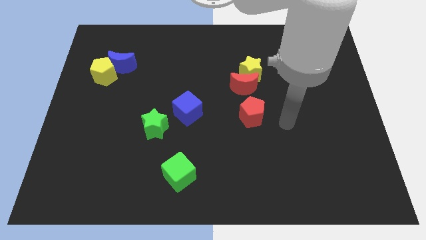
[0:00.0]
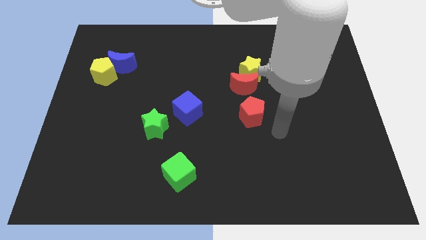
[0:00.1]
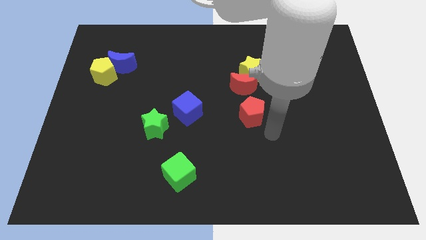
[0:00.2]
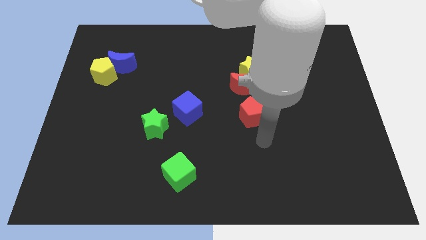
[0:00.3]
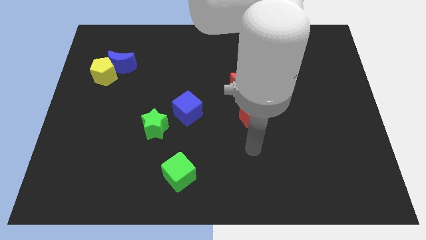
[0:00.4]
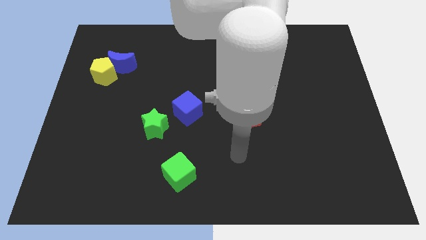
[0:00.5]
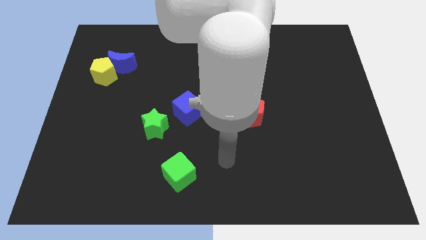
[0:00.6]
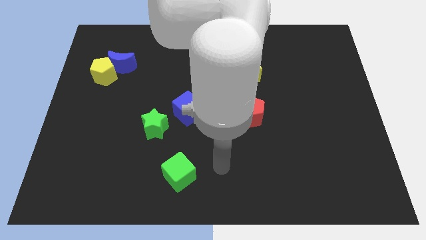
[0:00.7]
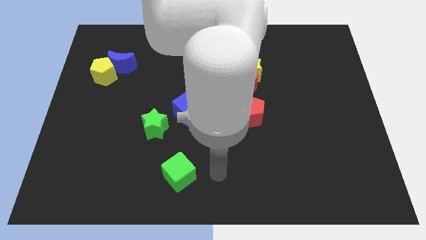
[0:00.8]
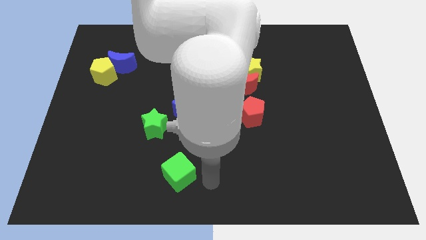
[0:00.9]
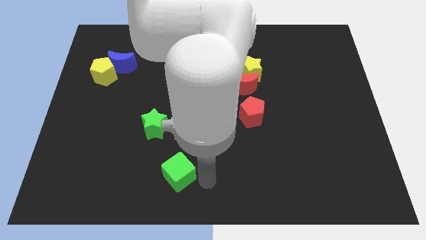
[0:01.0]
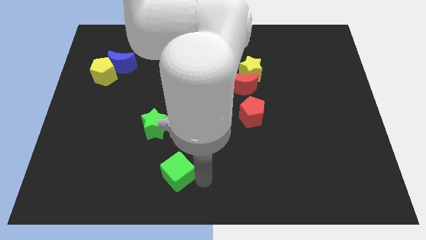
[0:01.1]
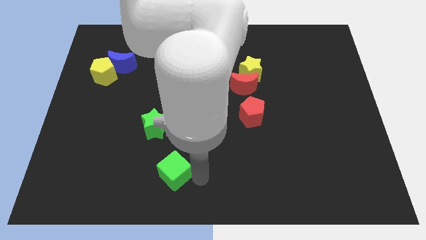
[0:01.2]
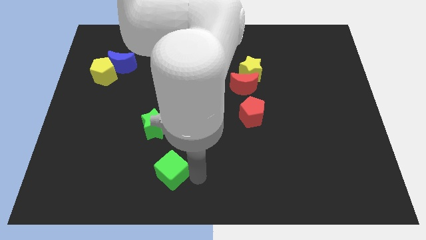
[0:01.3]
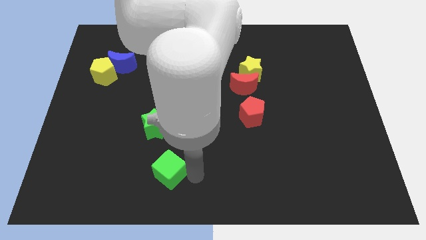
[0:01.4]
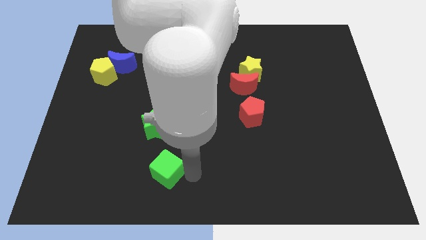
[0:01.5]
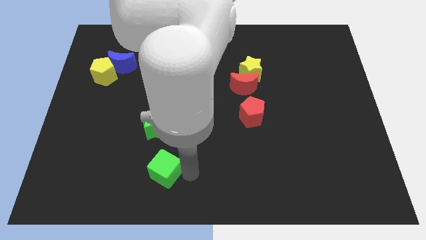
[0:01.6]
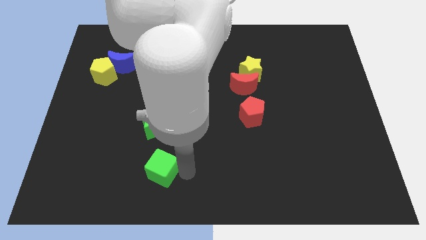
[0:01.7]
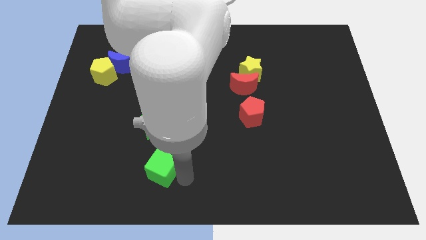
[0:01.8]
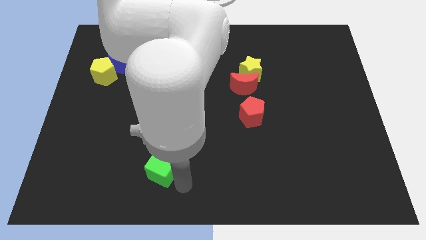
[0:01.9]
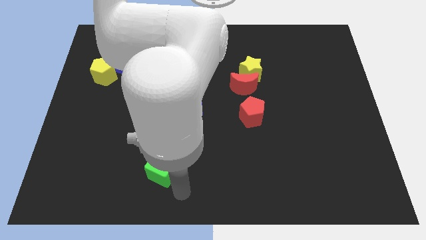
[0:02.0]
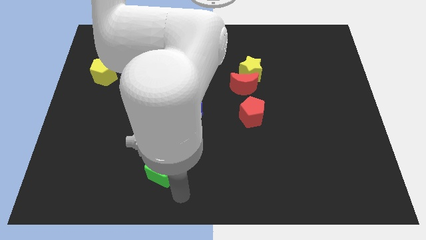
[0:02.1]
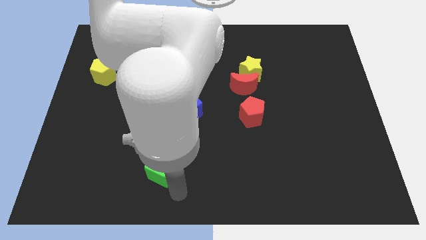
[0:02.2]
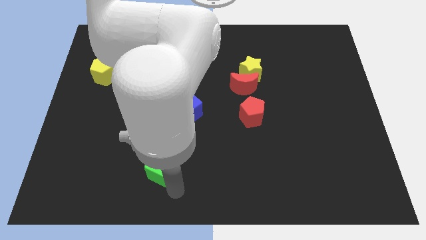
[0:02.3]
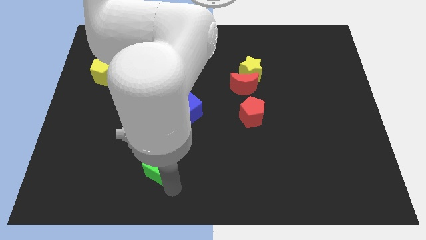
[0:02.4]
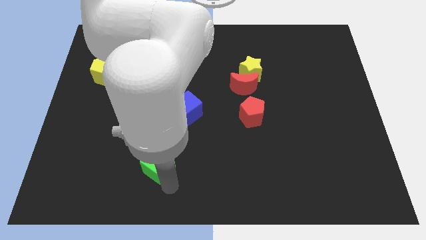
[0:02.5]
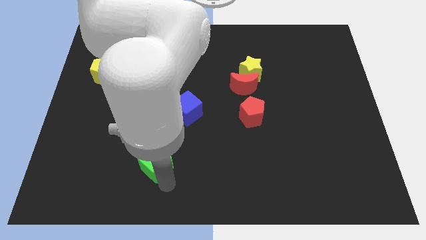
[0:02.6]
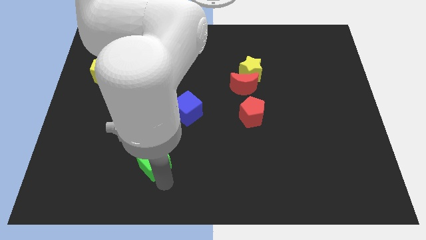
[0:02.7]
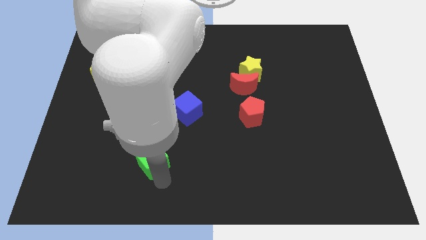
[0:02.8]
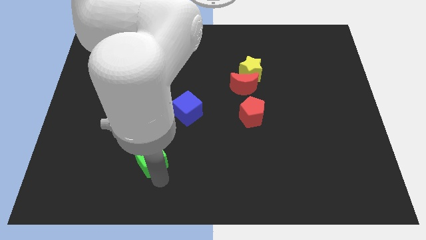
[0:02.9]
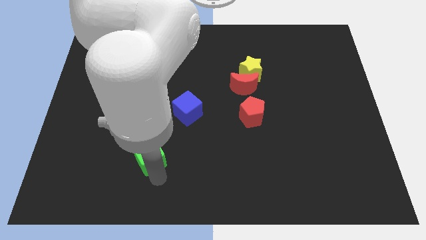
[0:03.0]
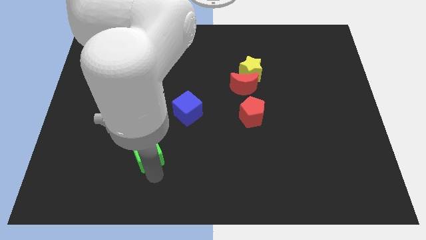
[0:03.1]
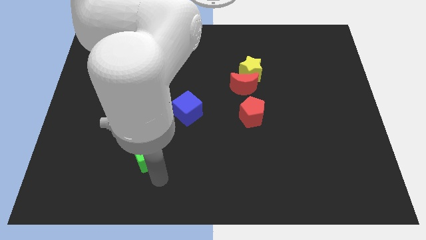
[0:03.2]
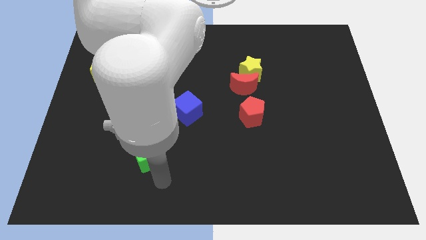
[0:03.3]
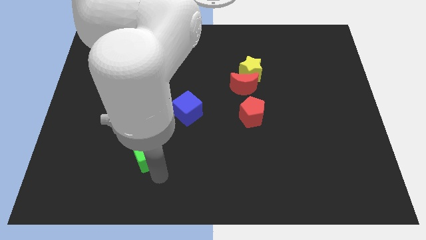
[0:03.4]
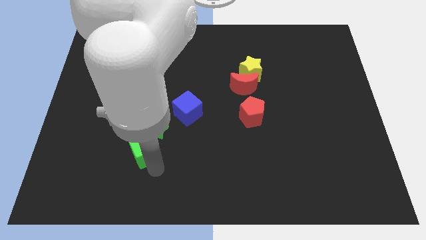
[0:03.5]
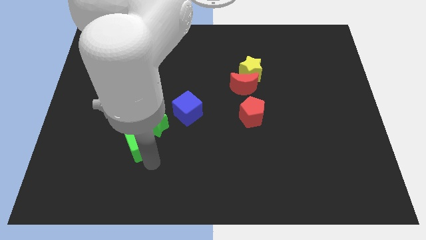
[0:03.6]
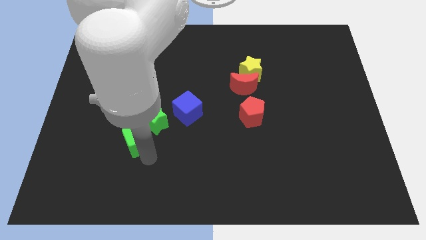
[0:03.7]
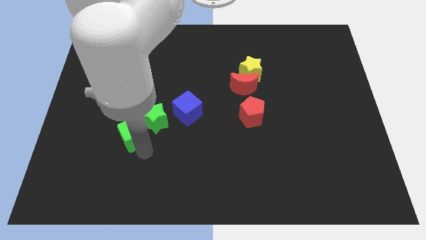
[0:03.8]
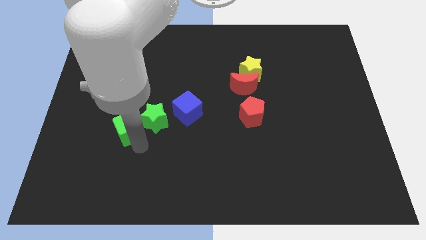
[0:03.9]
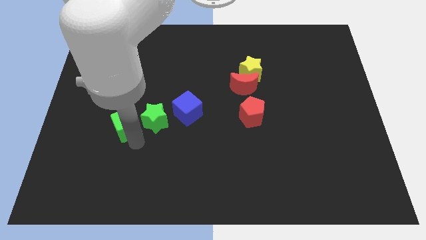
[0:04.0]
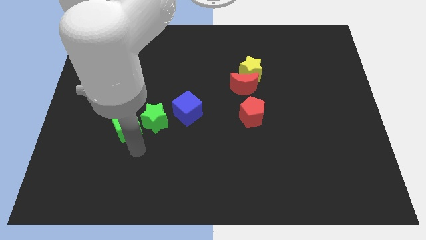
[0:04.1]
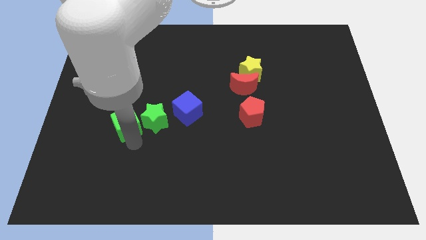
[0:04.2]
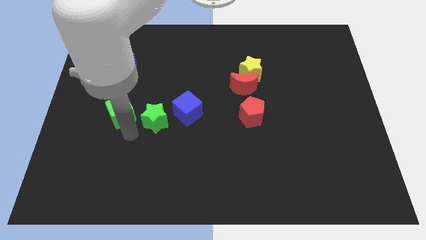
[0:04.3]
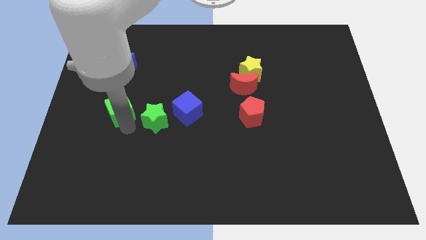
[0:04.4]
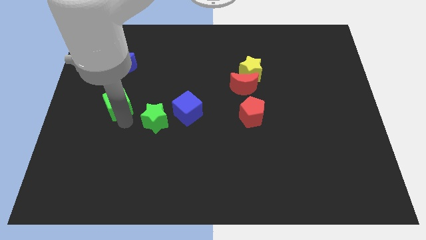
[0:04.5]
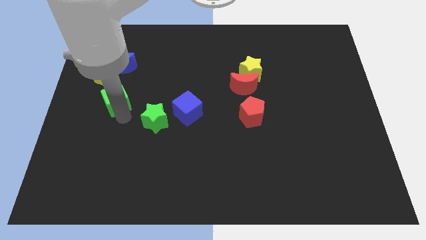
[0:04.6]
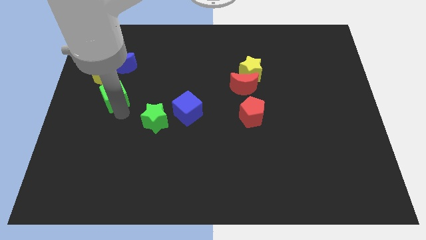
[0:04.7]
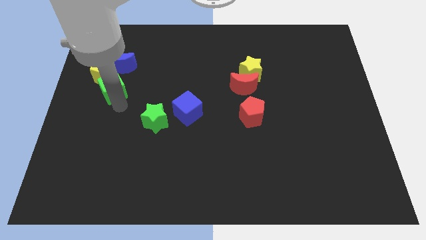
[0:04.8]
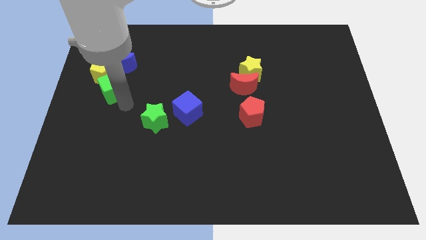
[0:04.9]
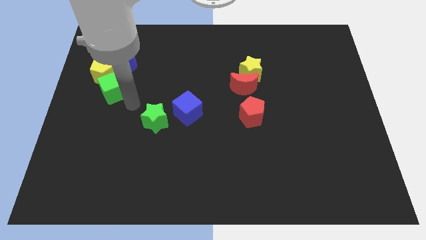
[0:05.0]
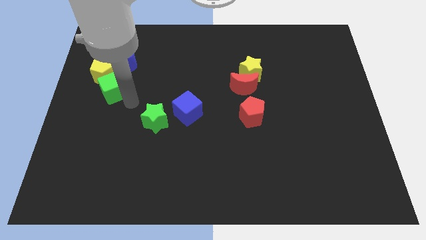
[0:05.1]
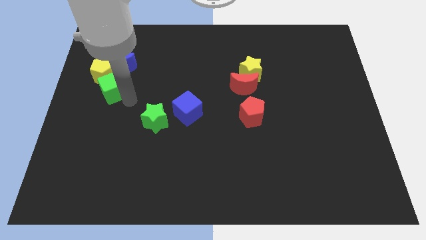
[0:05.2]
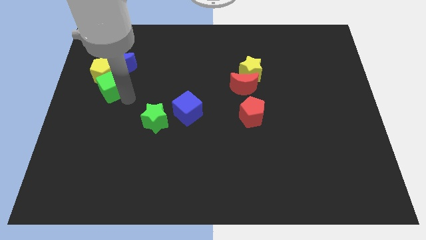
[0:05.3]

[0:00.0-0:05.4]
move the green cube to the bottom left of the blue moon

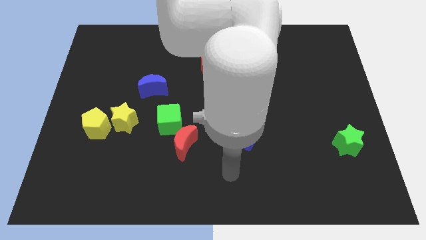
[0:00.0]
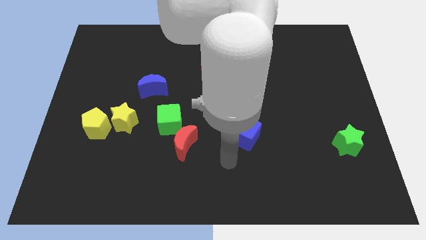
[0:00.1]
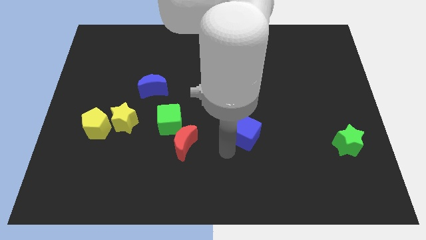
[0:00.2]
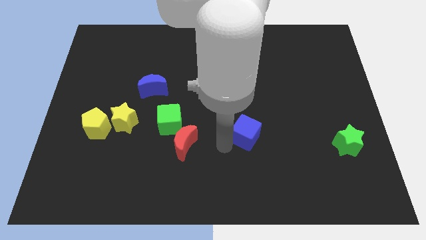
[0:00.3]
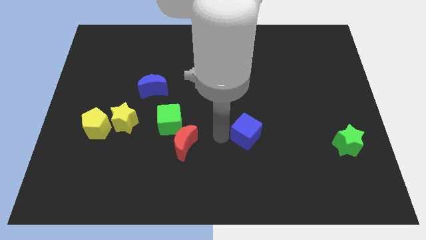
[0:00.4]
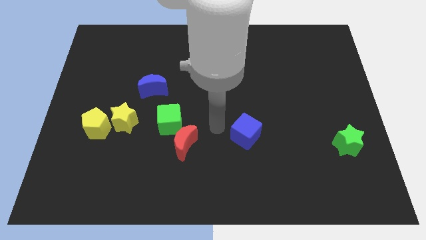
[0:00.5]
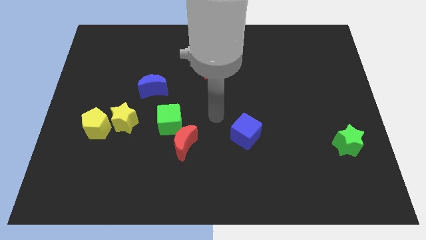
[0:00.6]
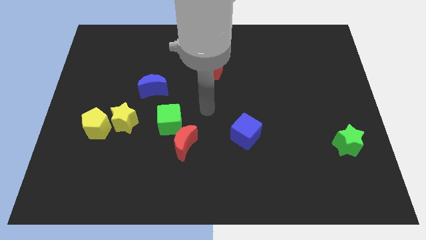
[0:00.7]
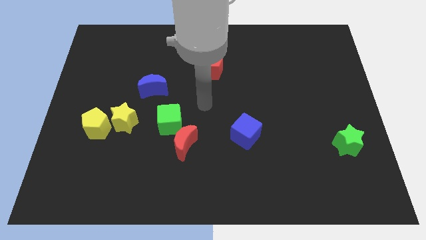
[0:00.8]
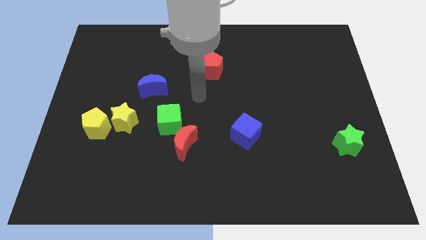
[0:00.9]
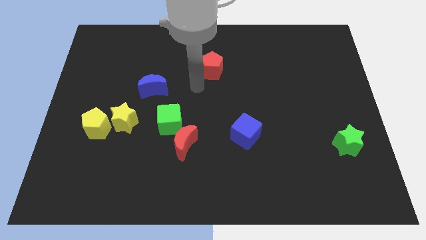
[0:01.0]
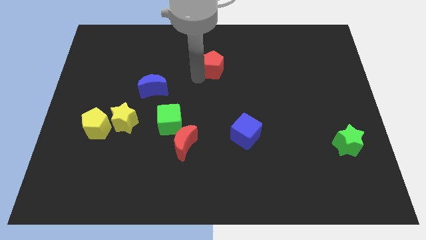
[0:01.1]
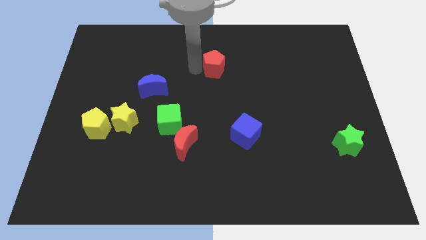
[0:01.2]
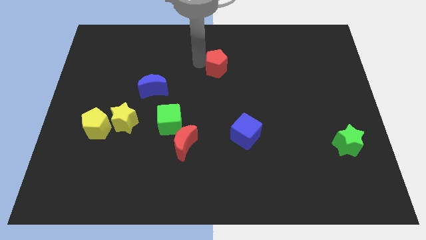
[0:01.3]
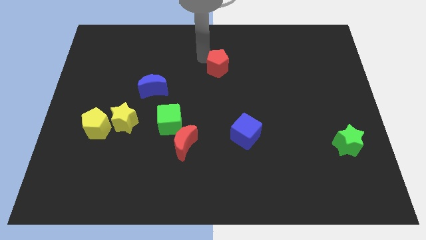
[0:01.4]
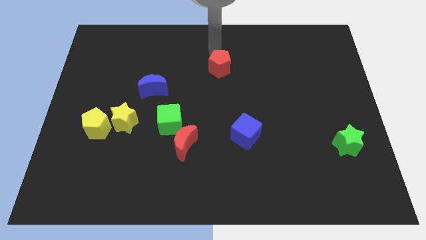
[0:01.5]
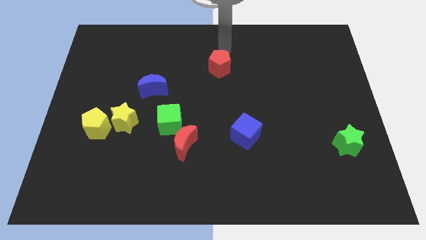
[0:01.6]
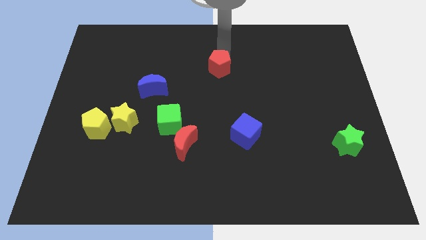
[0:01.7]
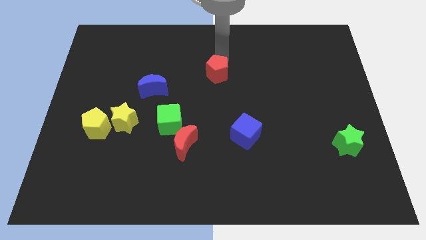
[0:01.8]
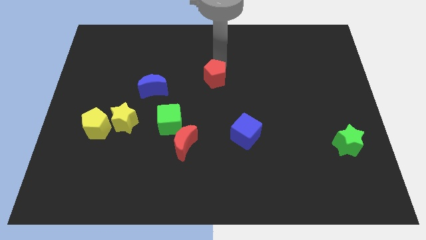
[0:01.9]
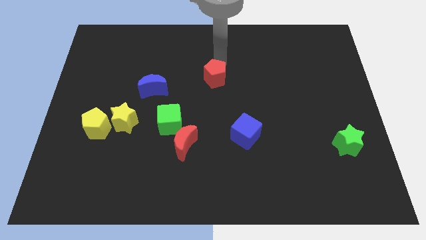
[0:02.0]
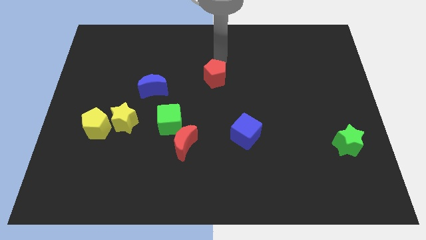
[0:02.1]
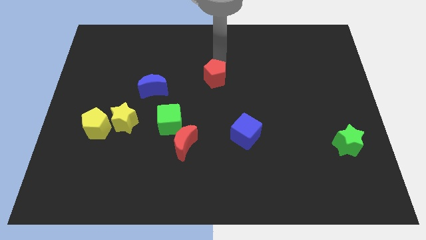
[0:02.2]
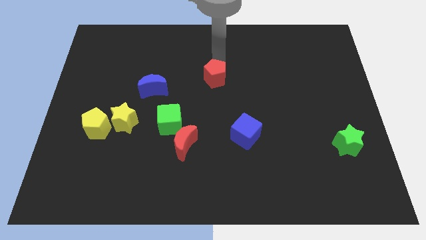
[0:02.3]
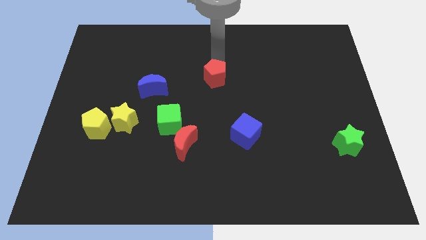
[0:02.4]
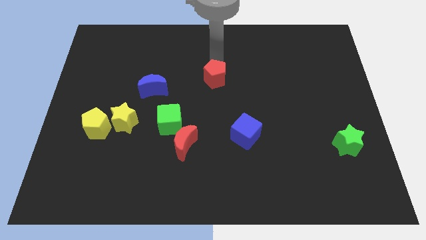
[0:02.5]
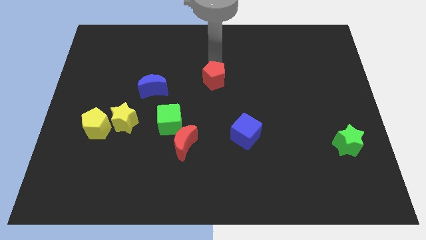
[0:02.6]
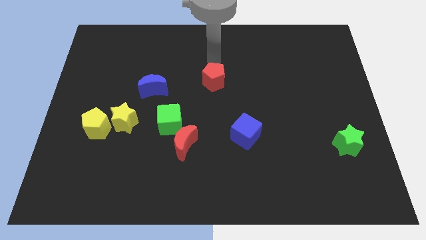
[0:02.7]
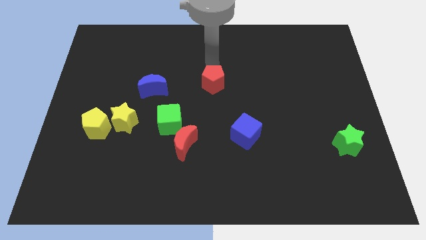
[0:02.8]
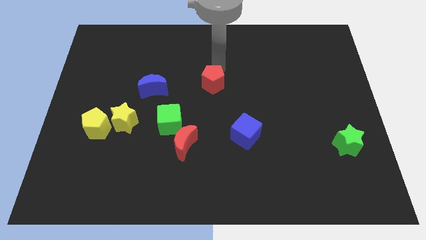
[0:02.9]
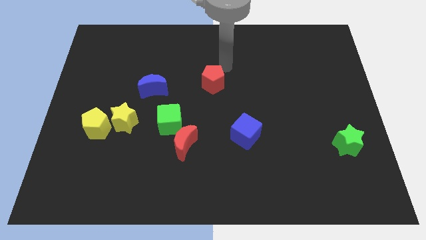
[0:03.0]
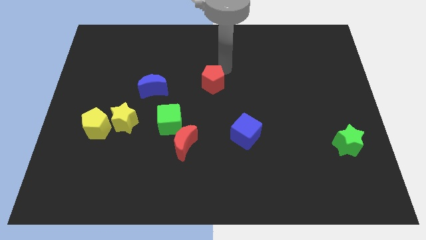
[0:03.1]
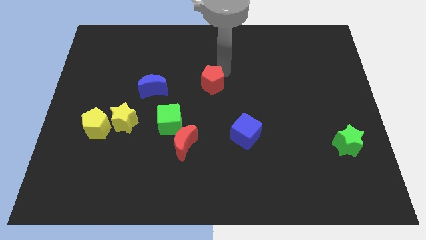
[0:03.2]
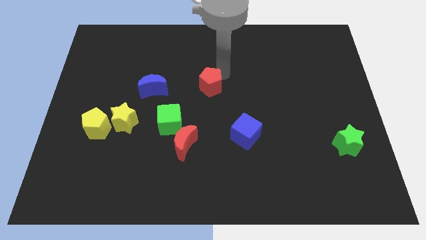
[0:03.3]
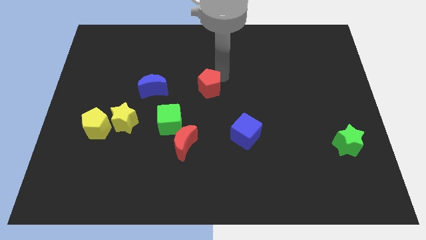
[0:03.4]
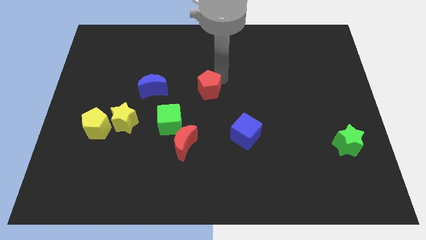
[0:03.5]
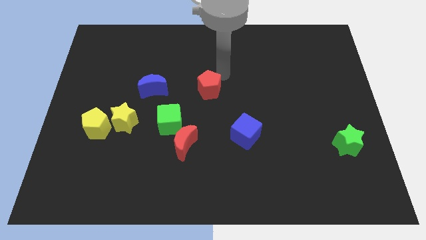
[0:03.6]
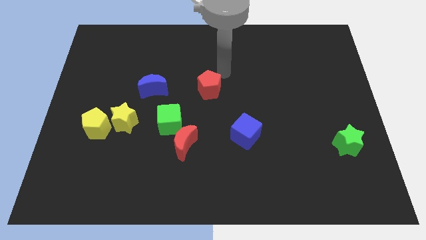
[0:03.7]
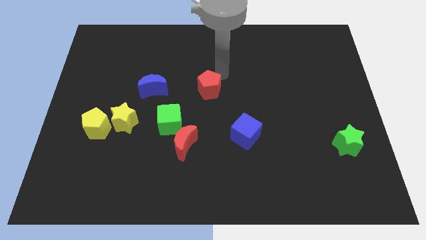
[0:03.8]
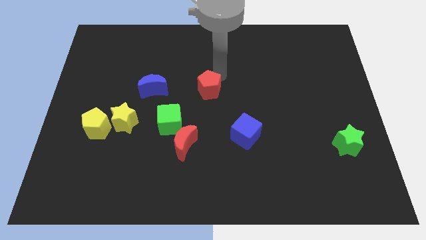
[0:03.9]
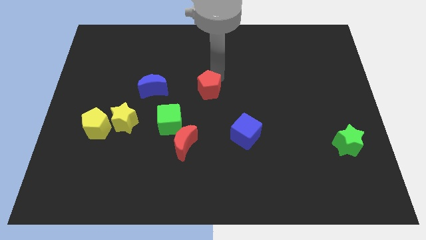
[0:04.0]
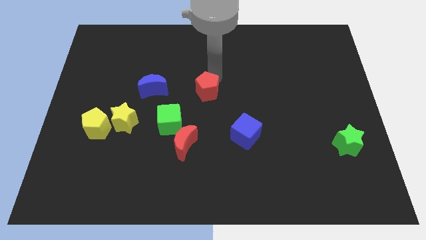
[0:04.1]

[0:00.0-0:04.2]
slide the red pentagon diagonally up and to the right of the green cube
